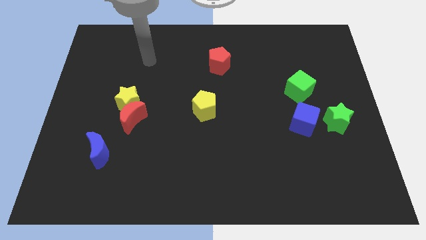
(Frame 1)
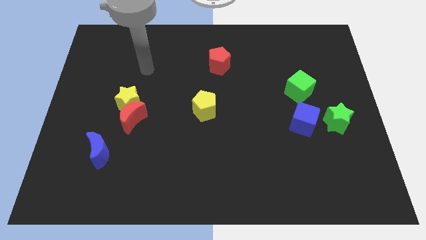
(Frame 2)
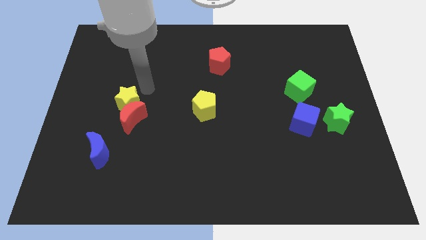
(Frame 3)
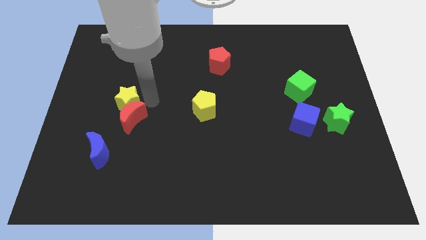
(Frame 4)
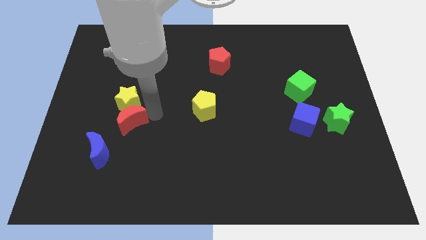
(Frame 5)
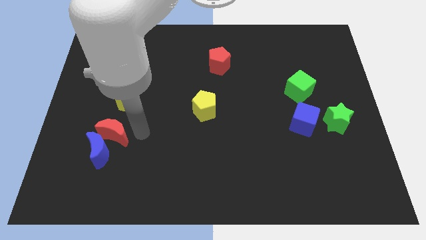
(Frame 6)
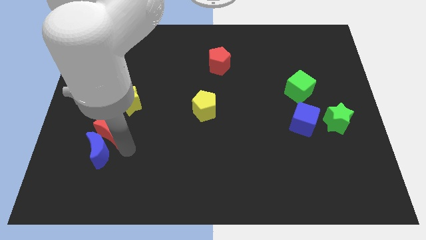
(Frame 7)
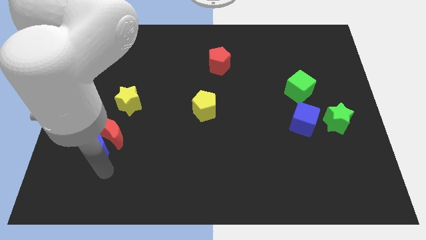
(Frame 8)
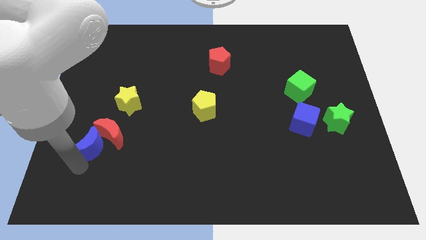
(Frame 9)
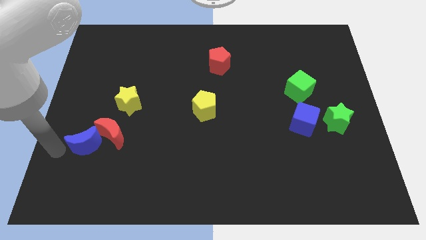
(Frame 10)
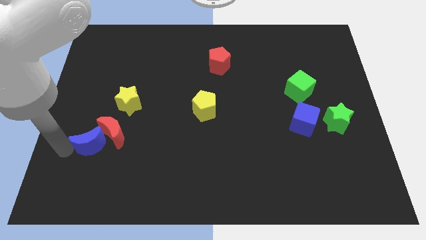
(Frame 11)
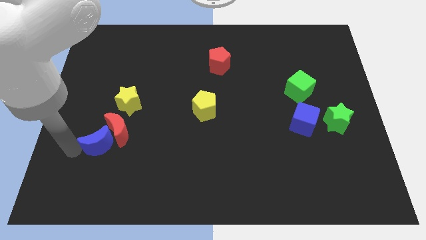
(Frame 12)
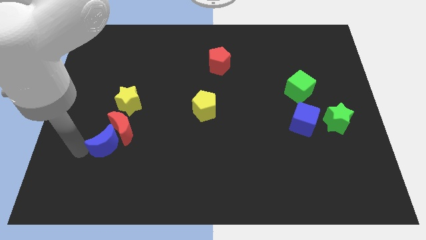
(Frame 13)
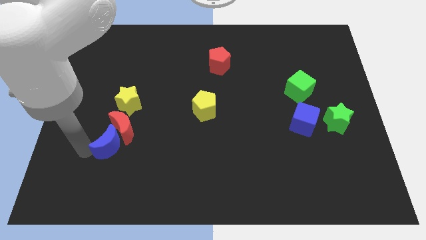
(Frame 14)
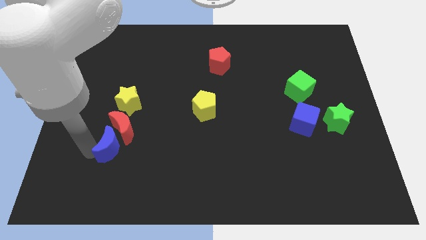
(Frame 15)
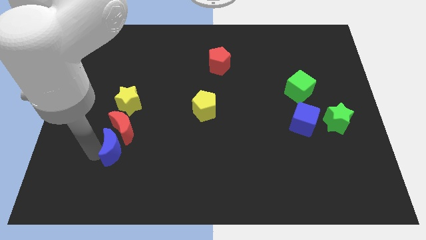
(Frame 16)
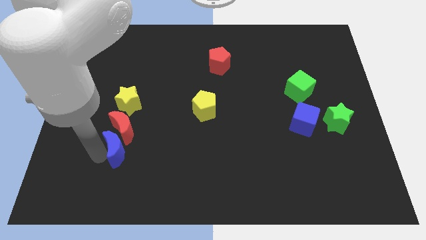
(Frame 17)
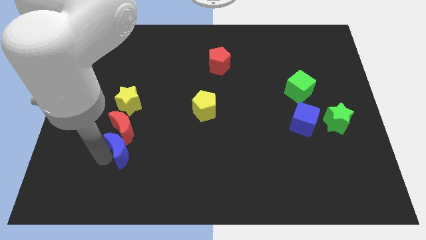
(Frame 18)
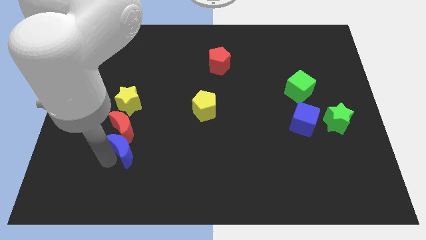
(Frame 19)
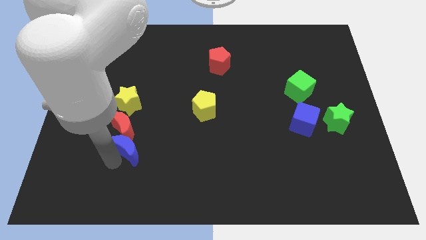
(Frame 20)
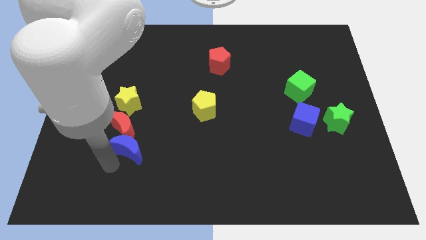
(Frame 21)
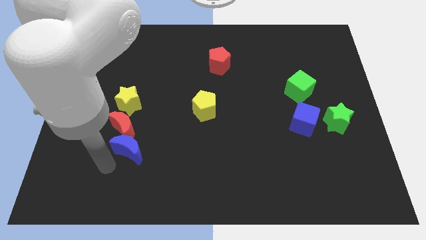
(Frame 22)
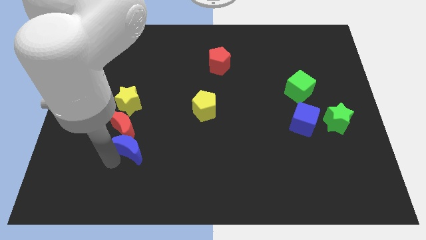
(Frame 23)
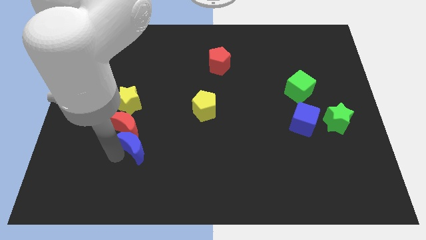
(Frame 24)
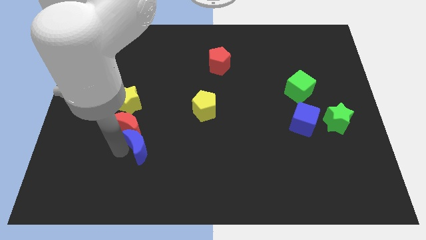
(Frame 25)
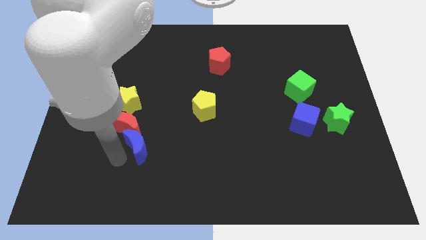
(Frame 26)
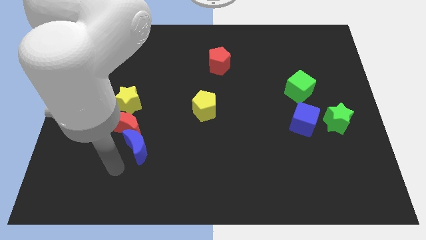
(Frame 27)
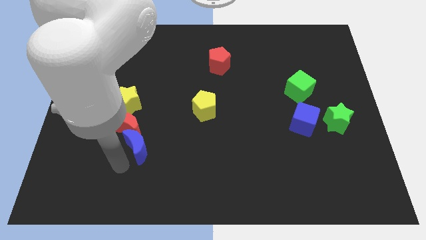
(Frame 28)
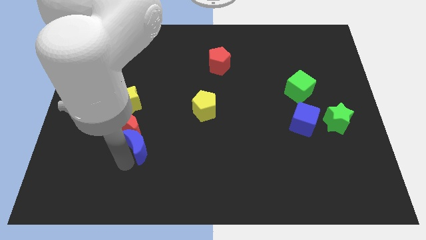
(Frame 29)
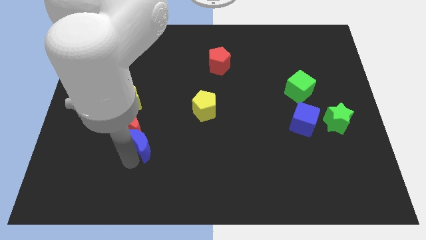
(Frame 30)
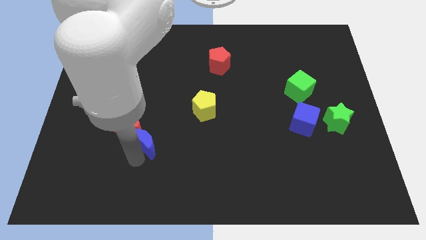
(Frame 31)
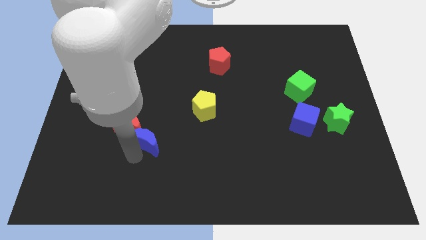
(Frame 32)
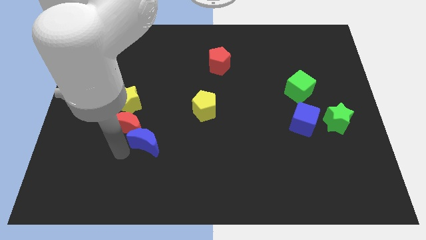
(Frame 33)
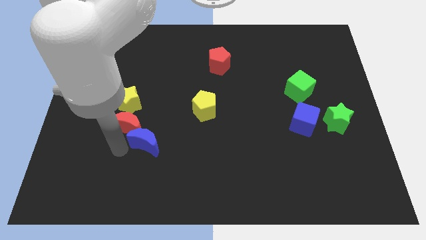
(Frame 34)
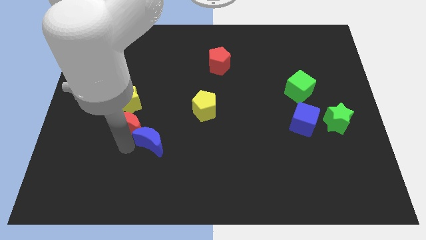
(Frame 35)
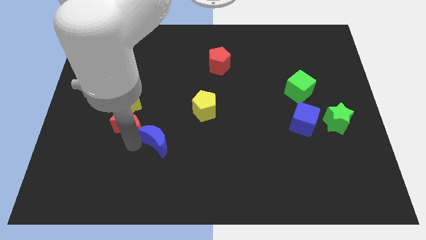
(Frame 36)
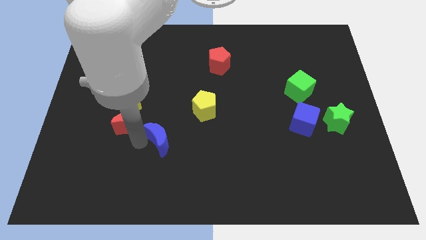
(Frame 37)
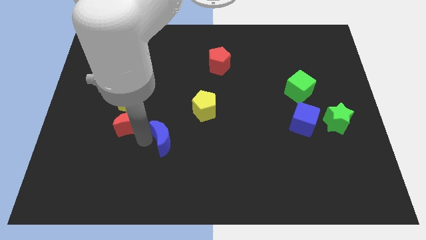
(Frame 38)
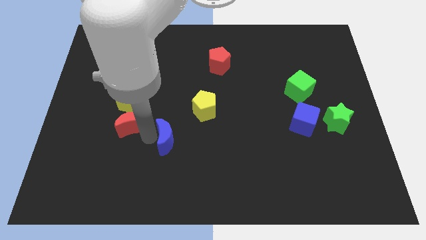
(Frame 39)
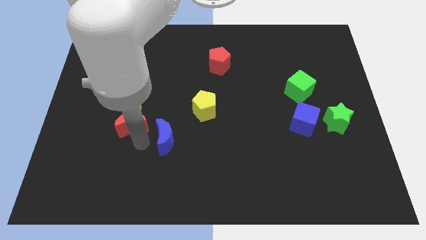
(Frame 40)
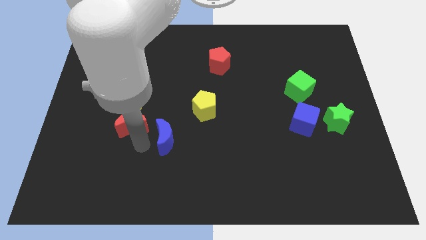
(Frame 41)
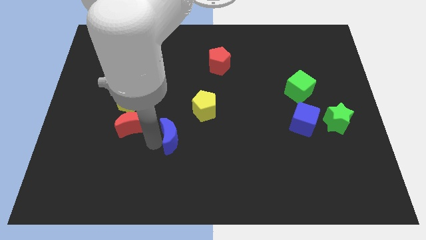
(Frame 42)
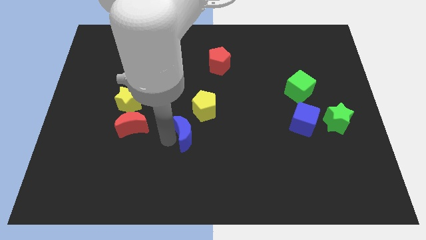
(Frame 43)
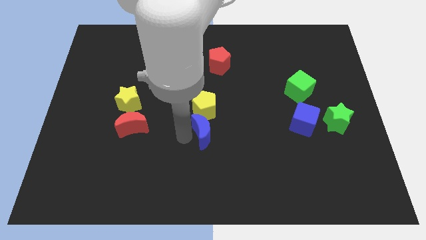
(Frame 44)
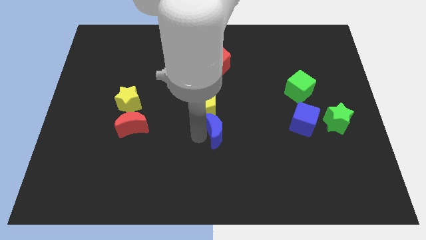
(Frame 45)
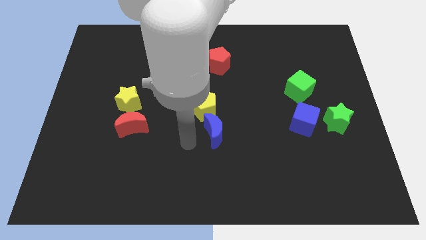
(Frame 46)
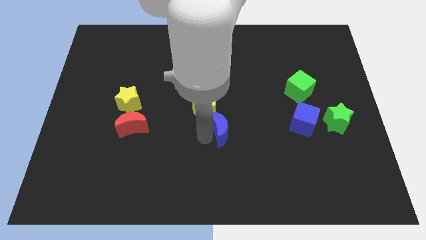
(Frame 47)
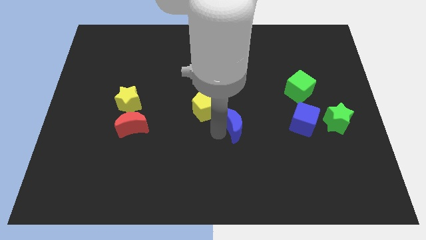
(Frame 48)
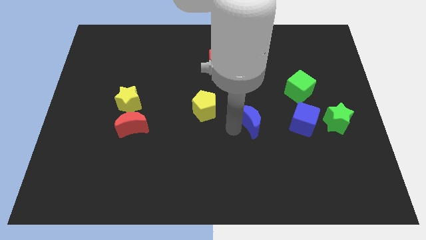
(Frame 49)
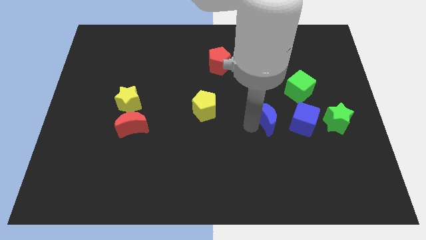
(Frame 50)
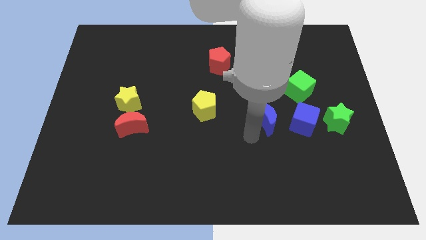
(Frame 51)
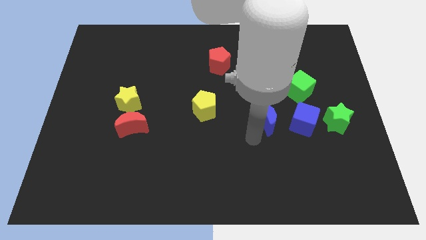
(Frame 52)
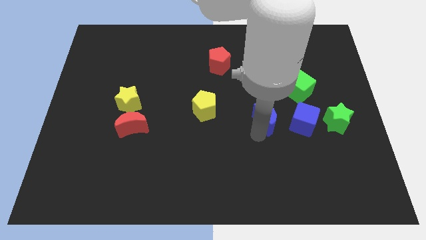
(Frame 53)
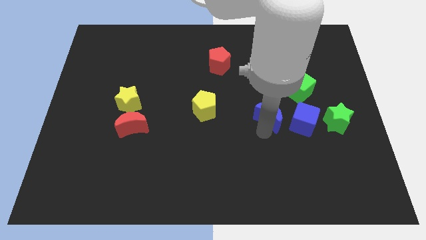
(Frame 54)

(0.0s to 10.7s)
slide the blue moon to the top left side of the blue cube

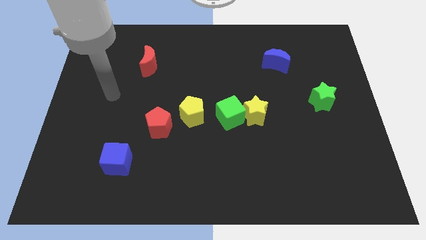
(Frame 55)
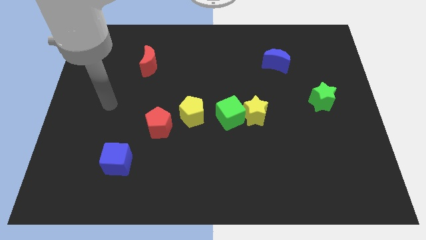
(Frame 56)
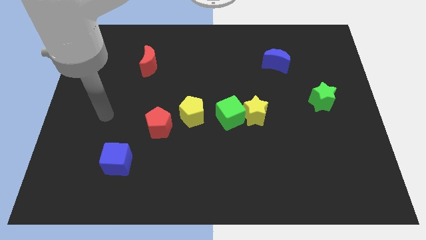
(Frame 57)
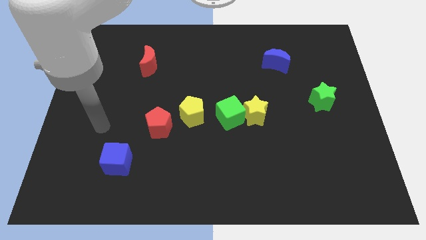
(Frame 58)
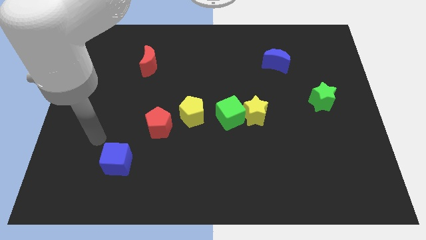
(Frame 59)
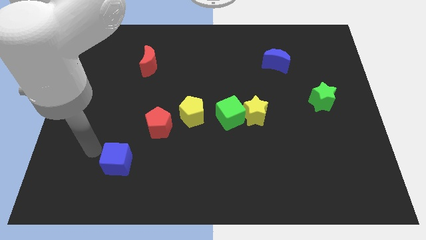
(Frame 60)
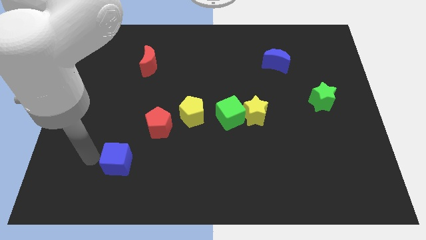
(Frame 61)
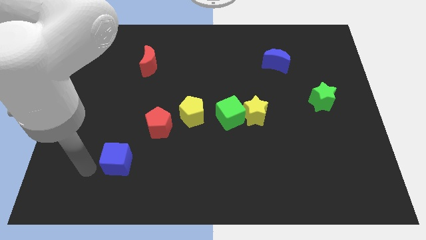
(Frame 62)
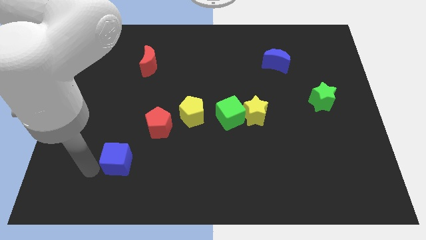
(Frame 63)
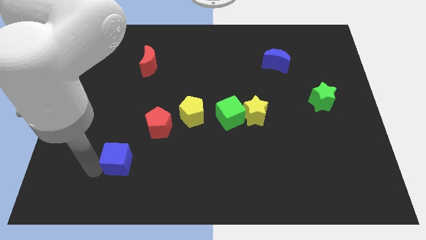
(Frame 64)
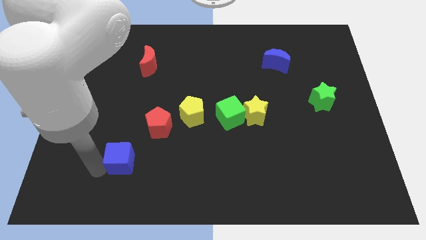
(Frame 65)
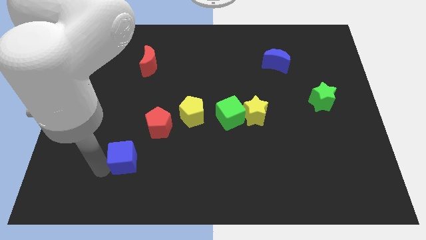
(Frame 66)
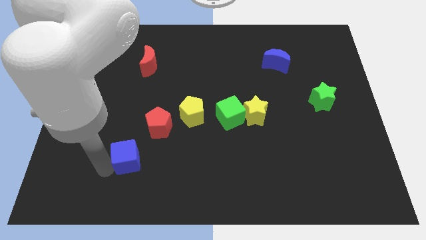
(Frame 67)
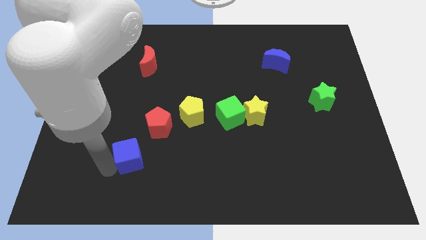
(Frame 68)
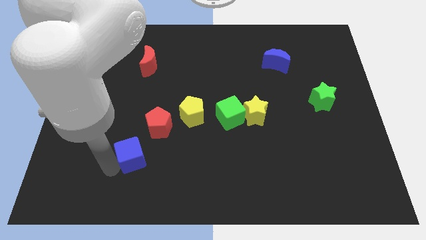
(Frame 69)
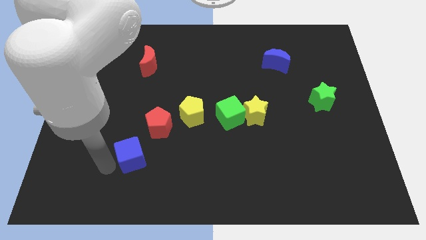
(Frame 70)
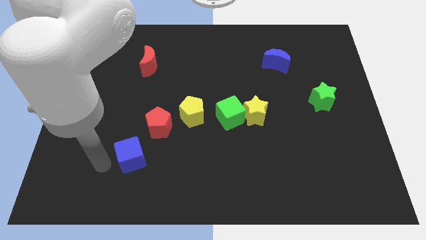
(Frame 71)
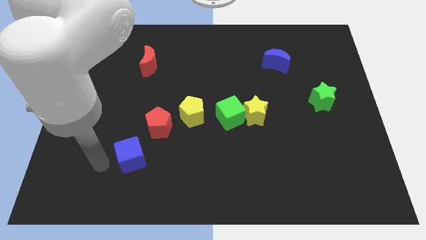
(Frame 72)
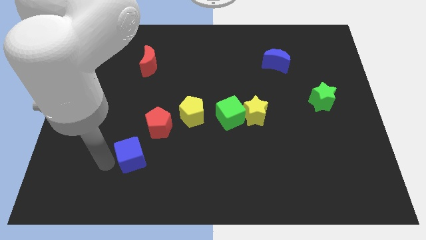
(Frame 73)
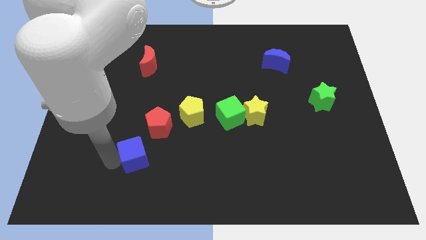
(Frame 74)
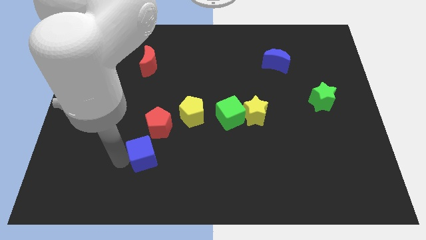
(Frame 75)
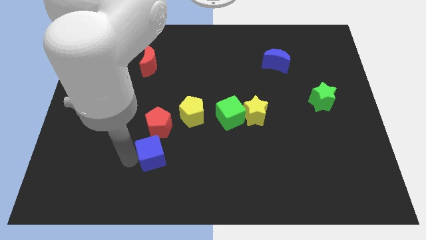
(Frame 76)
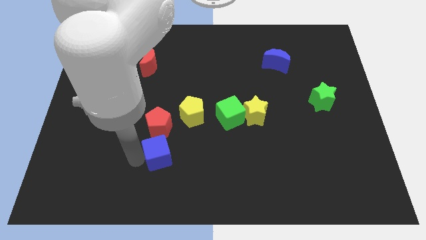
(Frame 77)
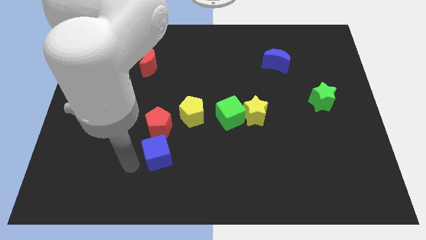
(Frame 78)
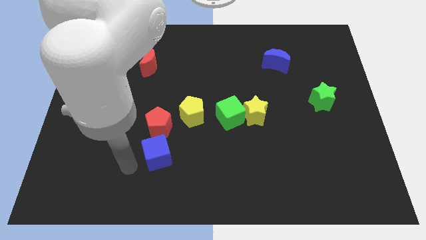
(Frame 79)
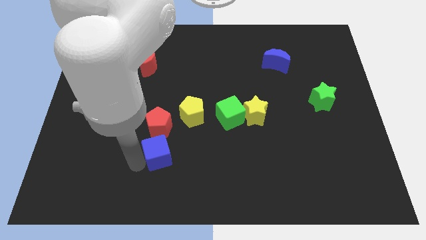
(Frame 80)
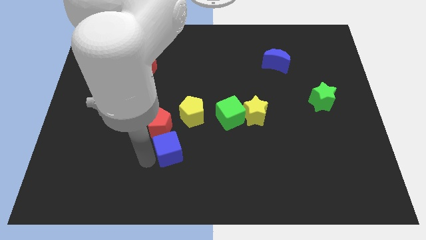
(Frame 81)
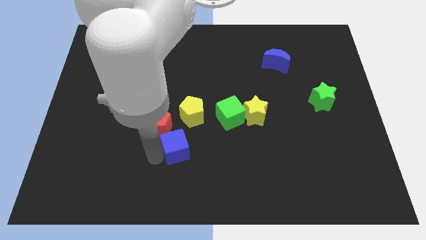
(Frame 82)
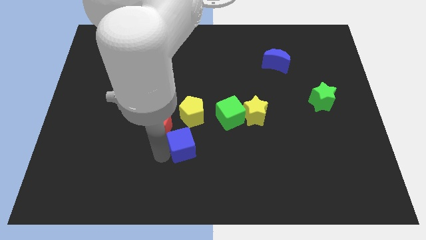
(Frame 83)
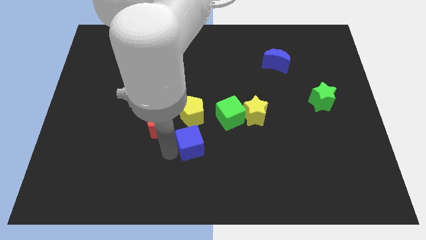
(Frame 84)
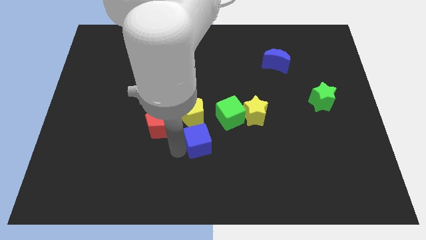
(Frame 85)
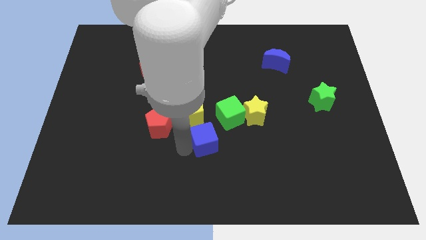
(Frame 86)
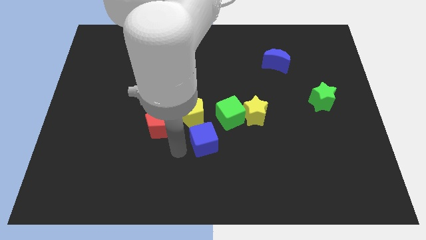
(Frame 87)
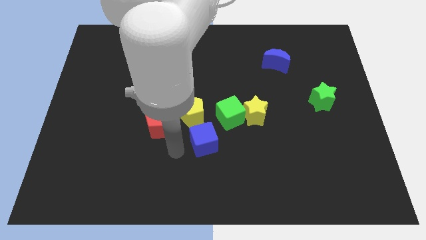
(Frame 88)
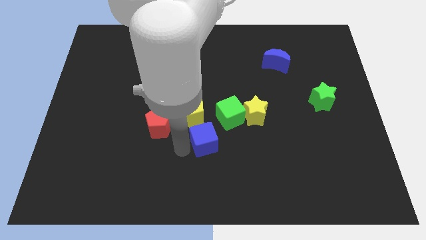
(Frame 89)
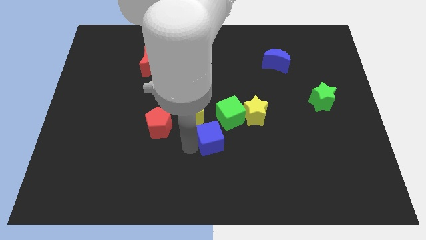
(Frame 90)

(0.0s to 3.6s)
push the blue cube diagonally down and to the left of the yellow star
